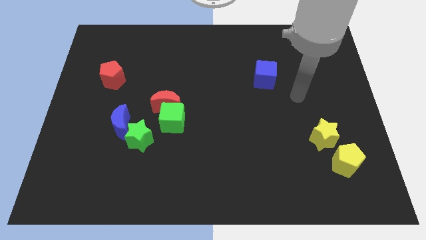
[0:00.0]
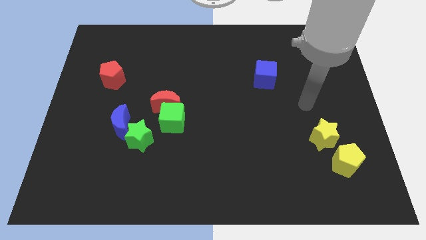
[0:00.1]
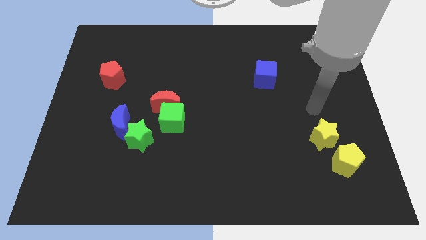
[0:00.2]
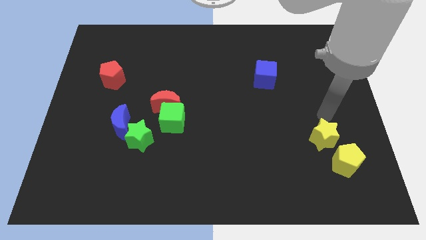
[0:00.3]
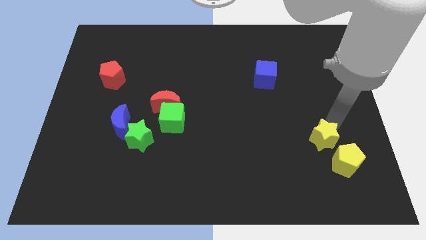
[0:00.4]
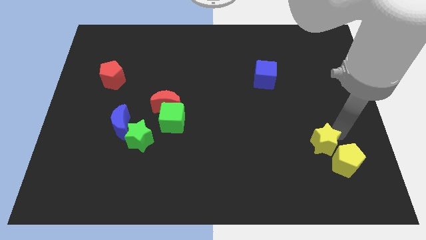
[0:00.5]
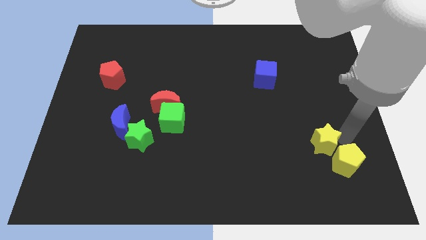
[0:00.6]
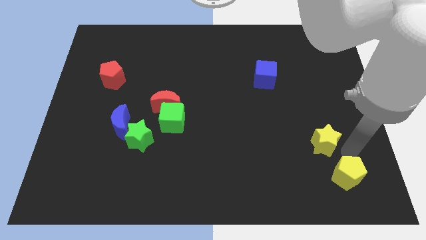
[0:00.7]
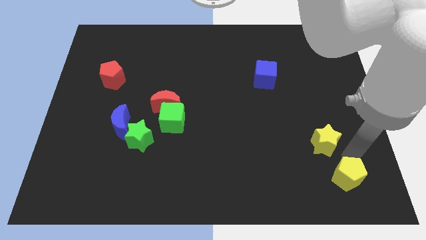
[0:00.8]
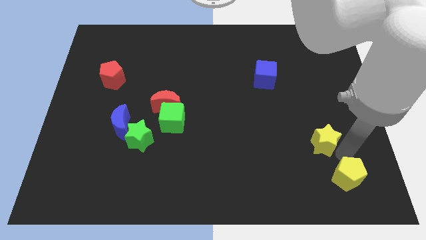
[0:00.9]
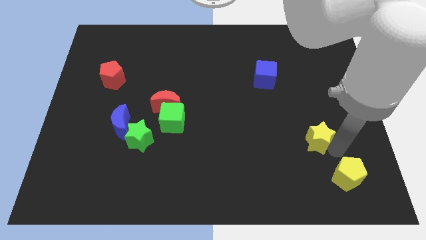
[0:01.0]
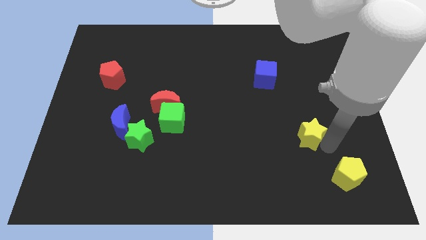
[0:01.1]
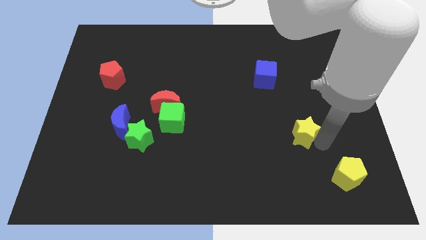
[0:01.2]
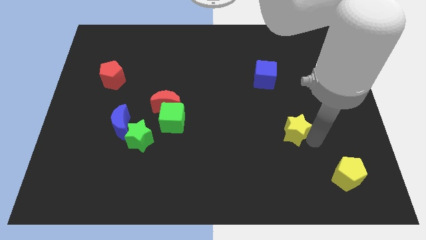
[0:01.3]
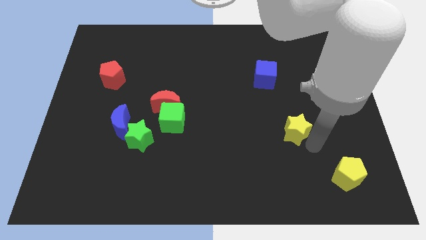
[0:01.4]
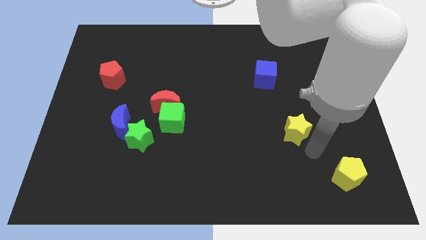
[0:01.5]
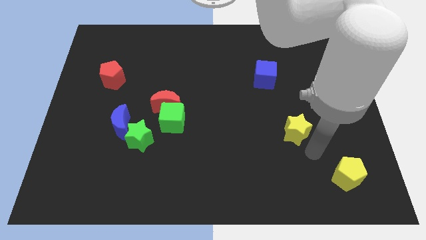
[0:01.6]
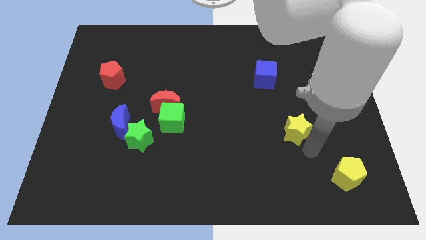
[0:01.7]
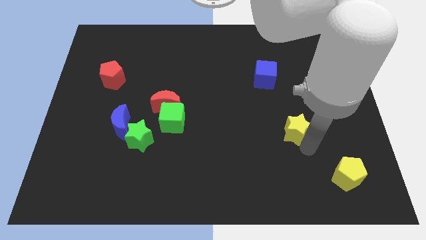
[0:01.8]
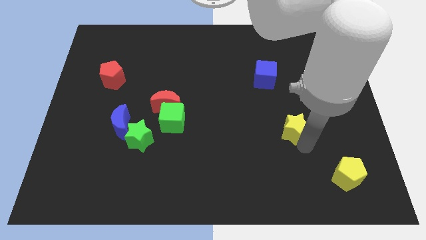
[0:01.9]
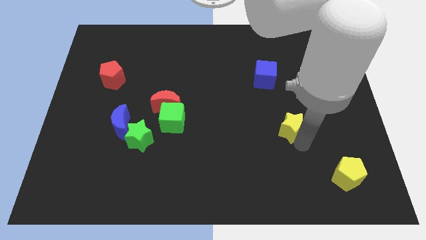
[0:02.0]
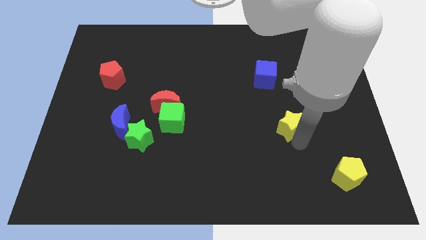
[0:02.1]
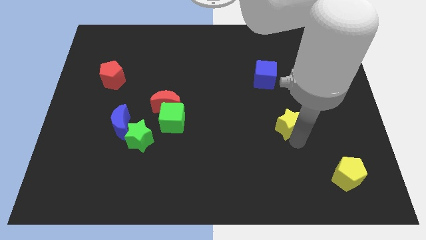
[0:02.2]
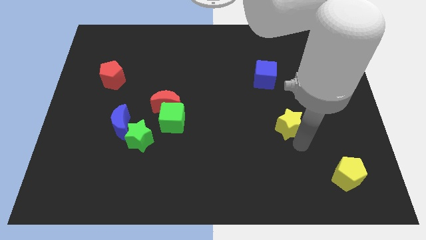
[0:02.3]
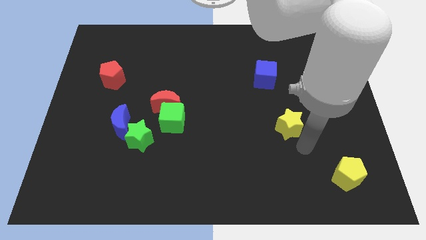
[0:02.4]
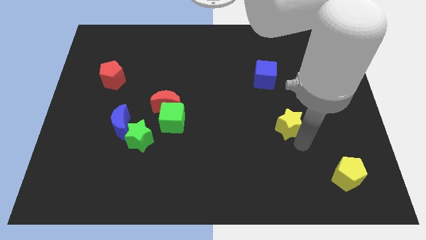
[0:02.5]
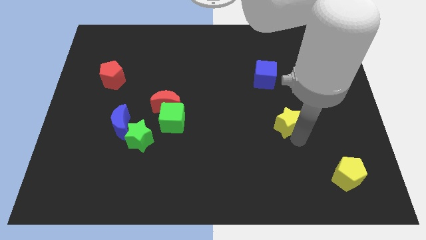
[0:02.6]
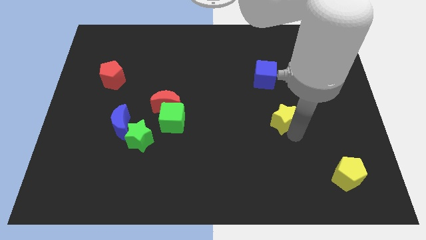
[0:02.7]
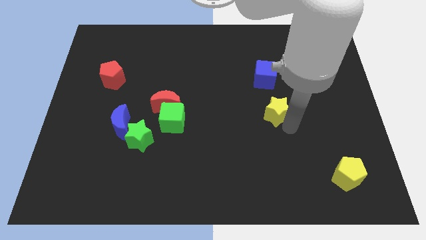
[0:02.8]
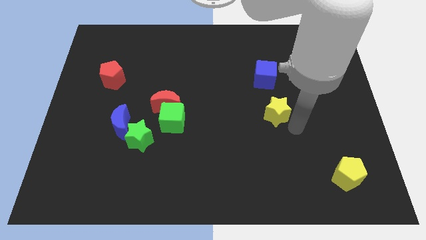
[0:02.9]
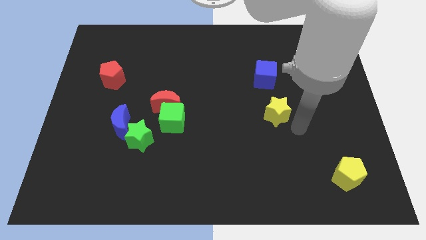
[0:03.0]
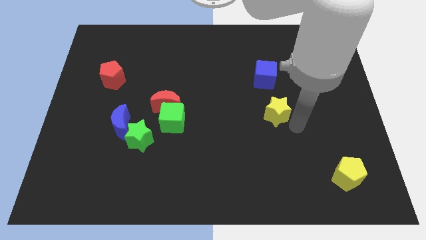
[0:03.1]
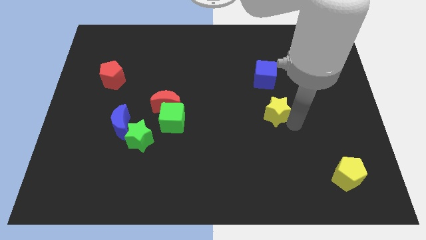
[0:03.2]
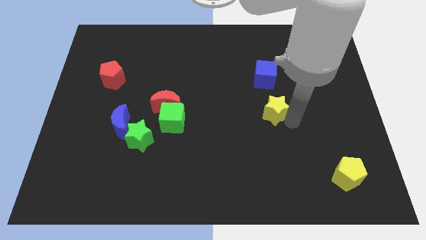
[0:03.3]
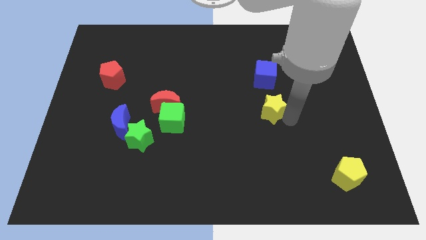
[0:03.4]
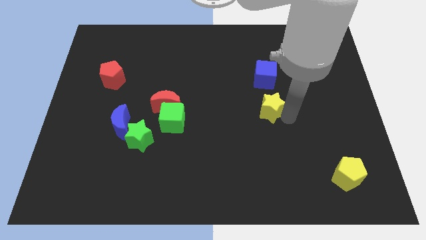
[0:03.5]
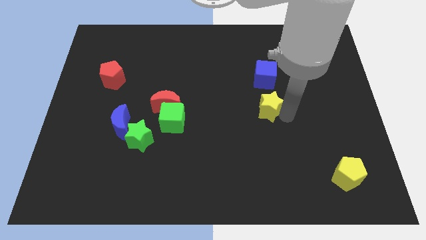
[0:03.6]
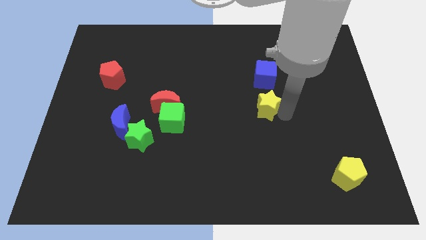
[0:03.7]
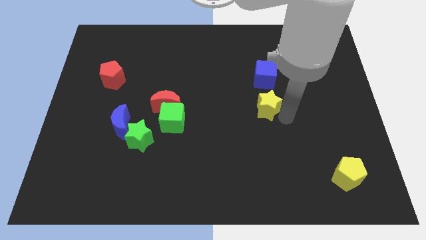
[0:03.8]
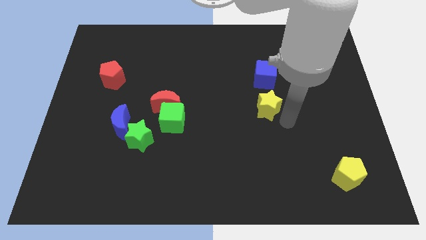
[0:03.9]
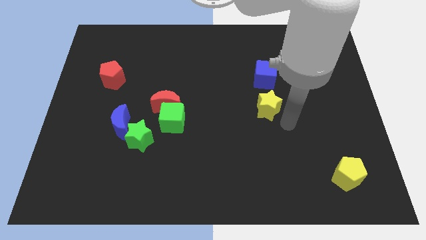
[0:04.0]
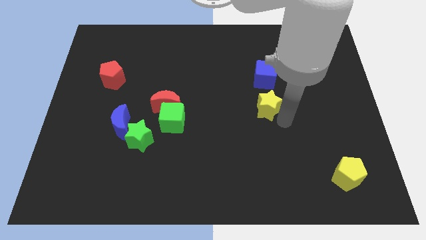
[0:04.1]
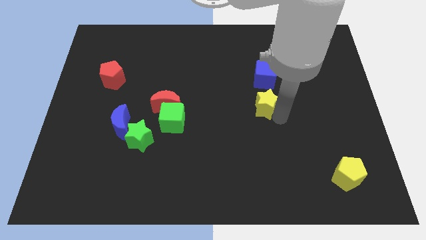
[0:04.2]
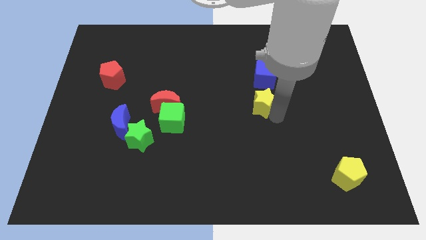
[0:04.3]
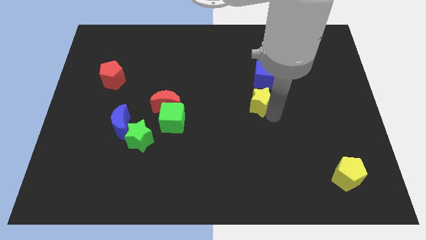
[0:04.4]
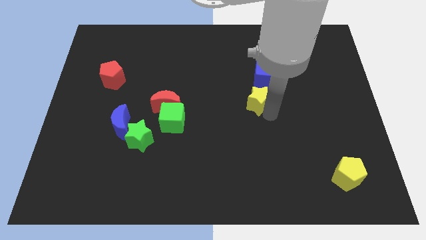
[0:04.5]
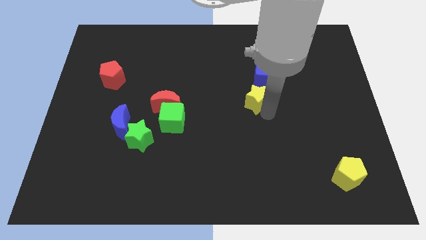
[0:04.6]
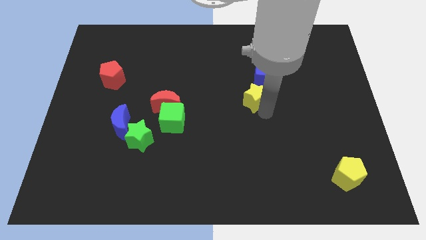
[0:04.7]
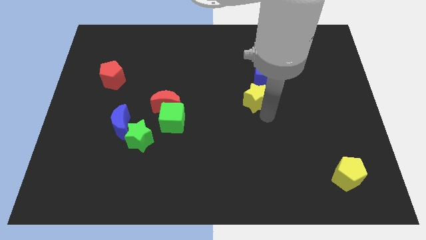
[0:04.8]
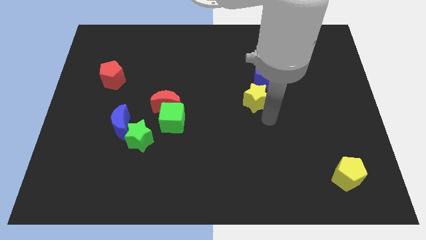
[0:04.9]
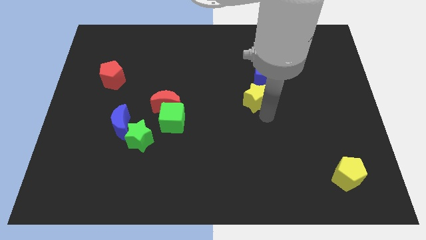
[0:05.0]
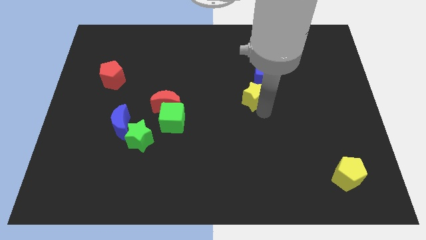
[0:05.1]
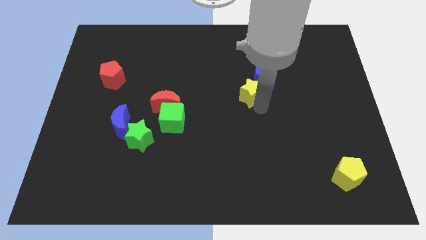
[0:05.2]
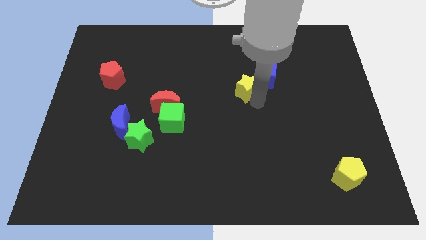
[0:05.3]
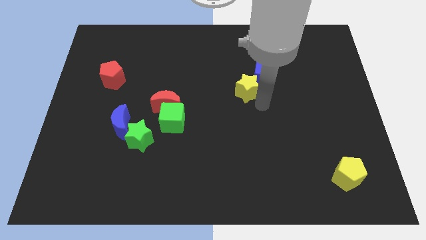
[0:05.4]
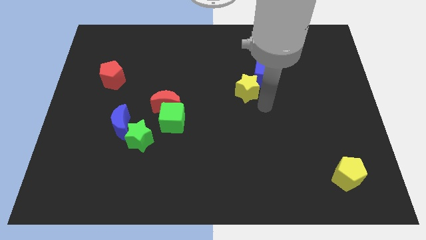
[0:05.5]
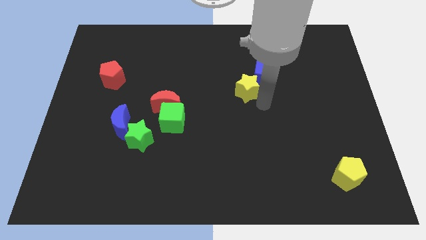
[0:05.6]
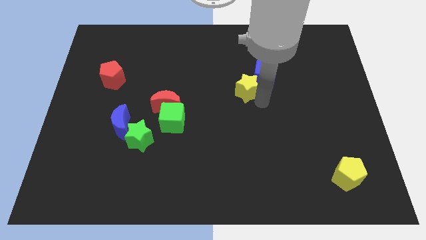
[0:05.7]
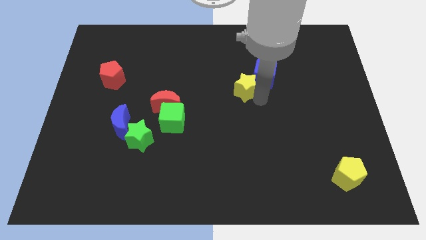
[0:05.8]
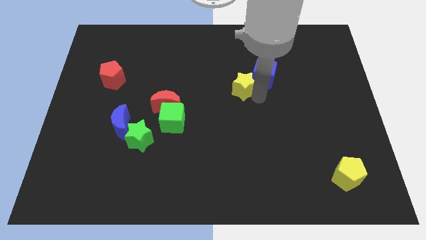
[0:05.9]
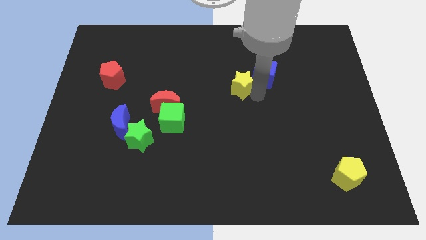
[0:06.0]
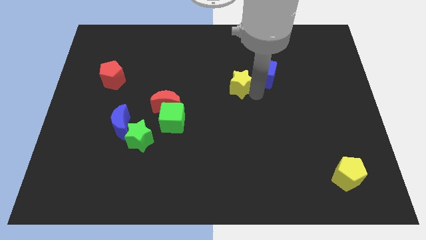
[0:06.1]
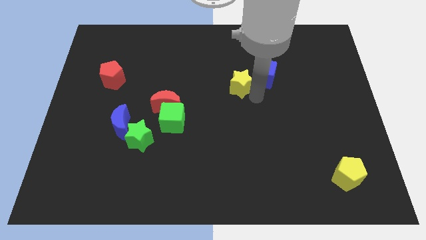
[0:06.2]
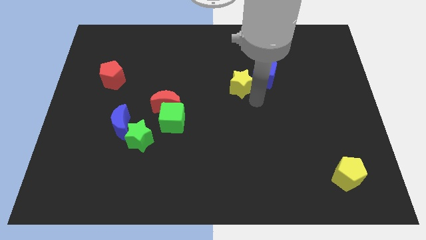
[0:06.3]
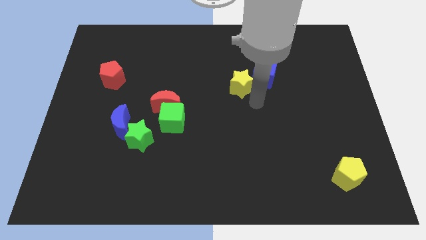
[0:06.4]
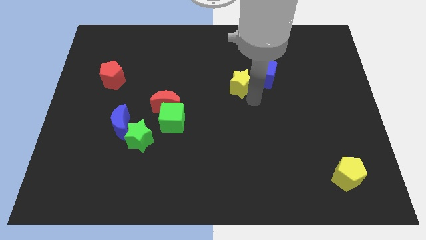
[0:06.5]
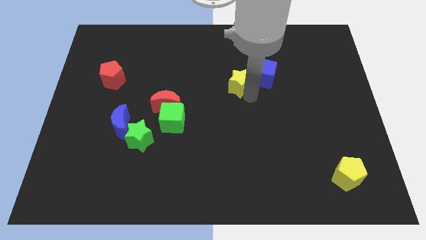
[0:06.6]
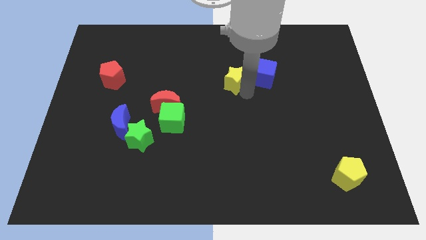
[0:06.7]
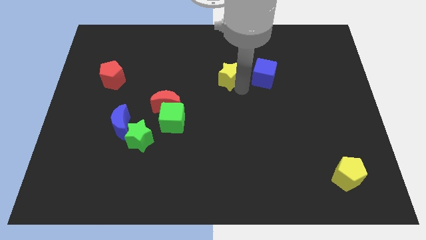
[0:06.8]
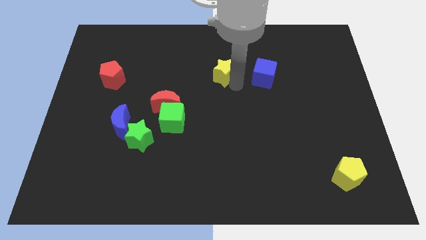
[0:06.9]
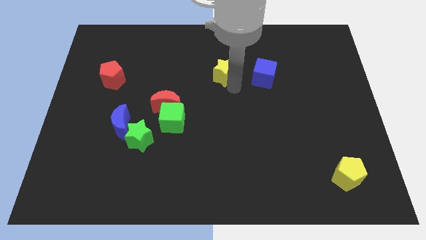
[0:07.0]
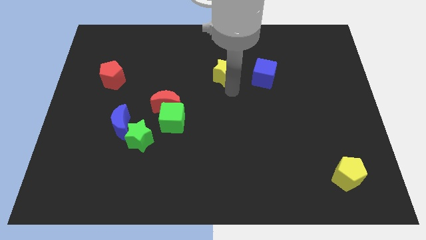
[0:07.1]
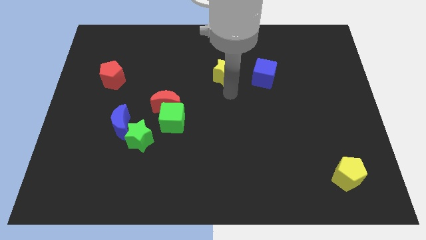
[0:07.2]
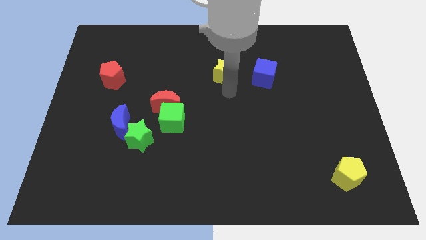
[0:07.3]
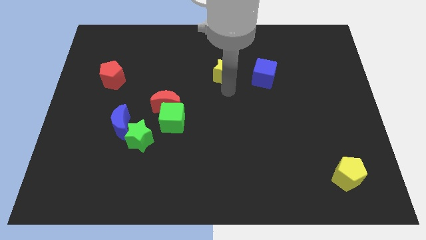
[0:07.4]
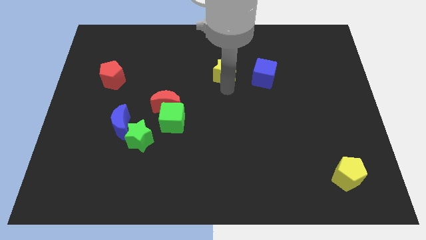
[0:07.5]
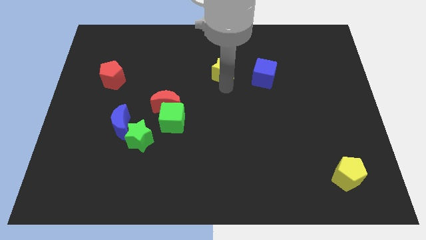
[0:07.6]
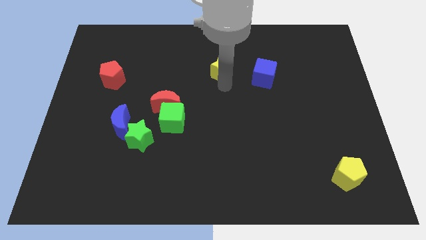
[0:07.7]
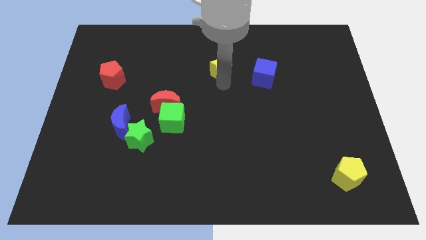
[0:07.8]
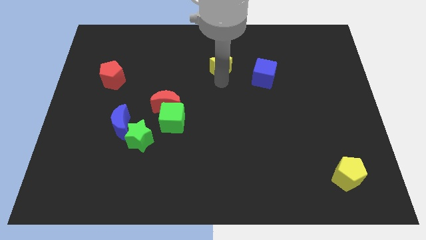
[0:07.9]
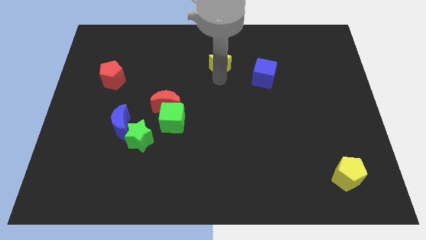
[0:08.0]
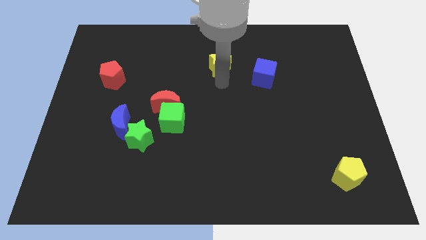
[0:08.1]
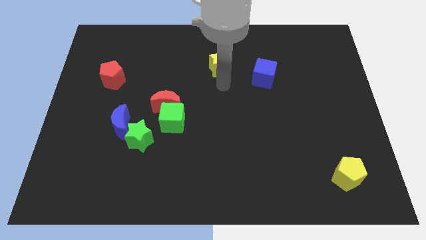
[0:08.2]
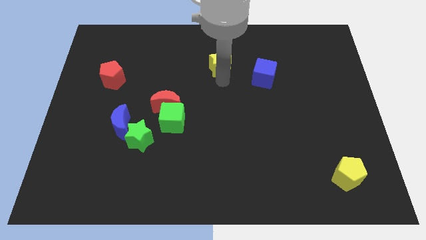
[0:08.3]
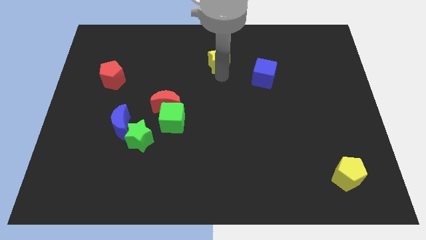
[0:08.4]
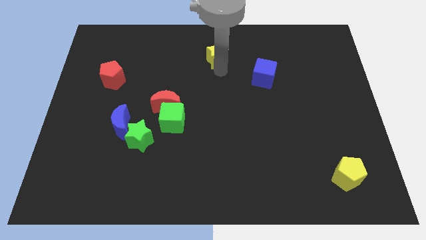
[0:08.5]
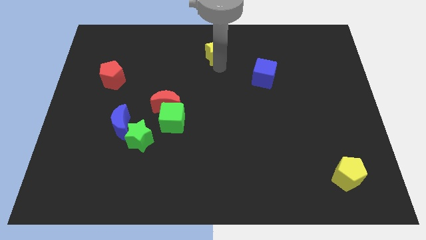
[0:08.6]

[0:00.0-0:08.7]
put the yellow star to the top
